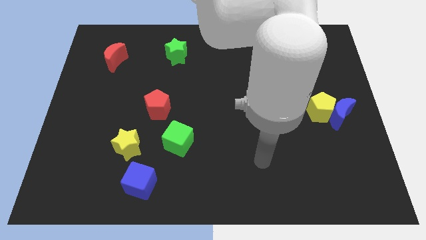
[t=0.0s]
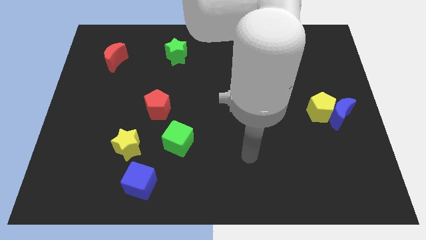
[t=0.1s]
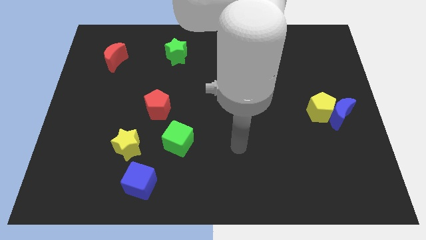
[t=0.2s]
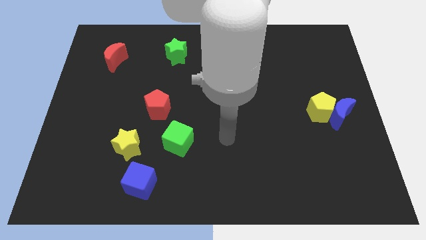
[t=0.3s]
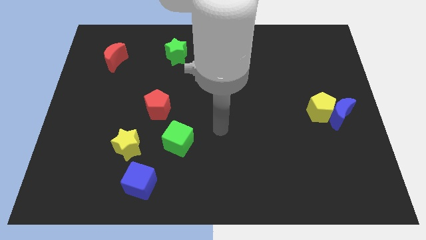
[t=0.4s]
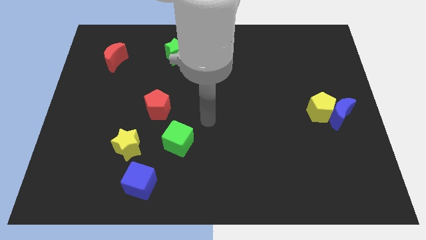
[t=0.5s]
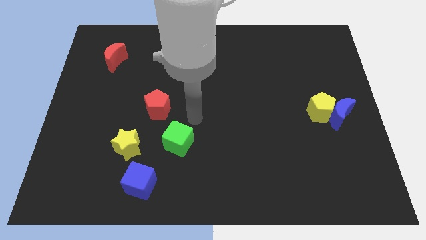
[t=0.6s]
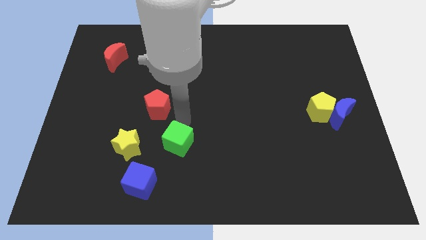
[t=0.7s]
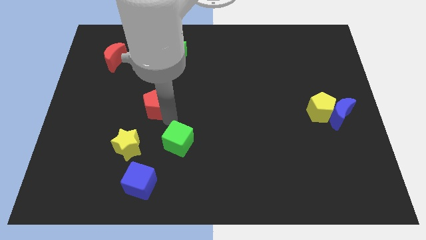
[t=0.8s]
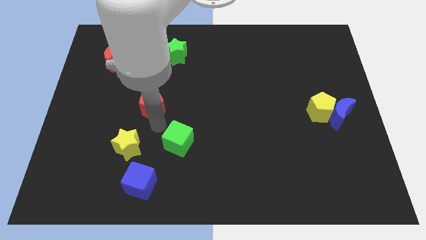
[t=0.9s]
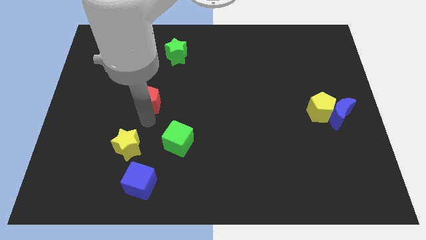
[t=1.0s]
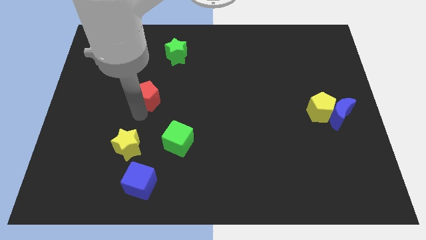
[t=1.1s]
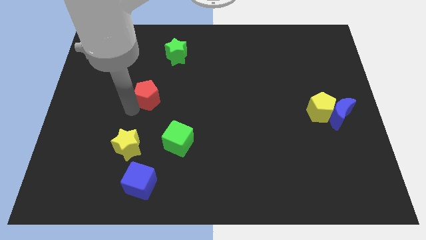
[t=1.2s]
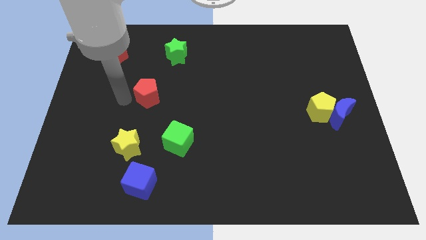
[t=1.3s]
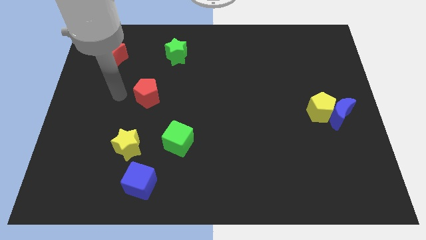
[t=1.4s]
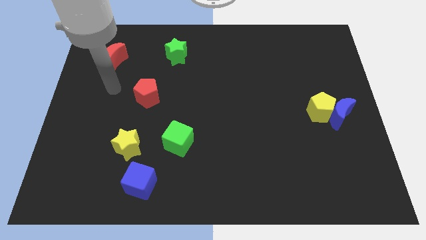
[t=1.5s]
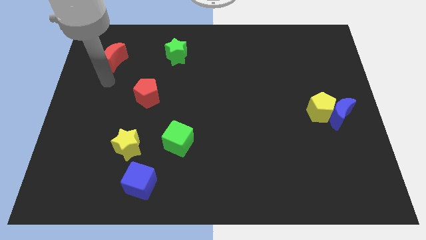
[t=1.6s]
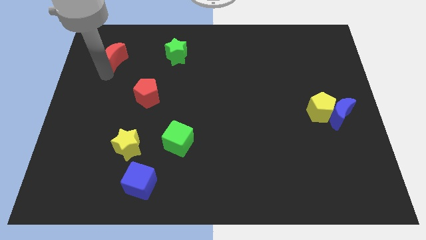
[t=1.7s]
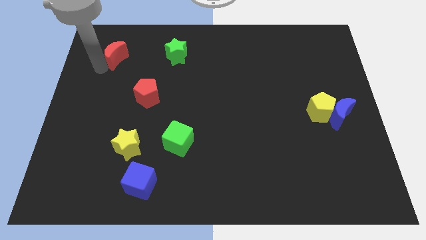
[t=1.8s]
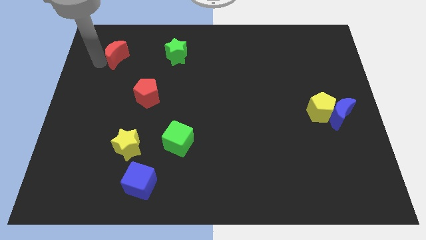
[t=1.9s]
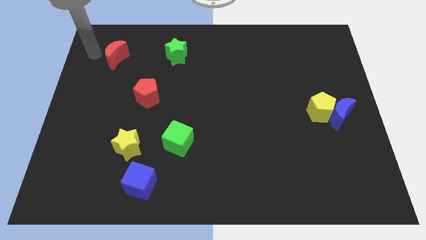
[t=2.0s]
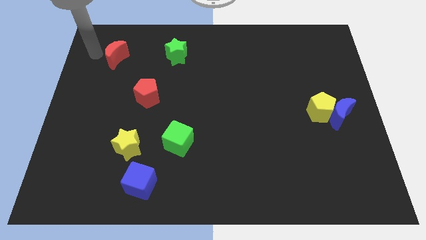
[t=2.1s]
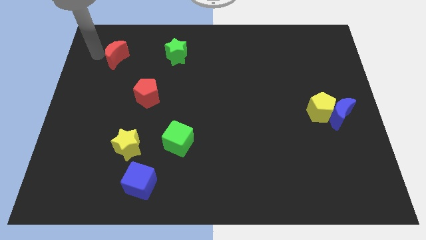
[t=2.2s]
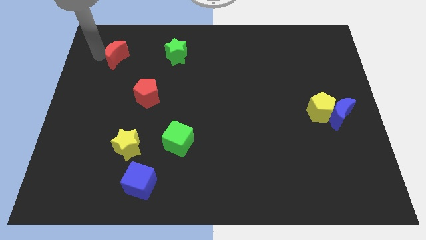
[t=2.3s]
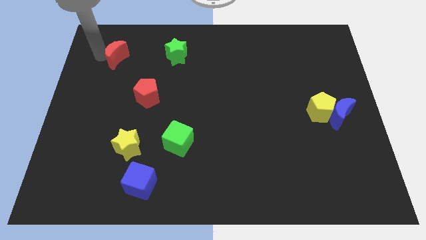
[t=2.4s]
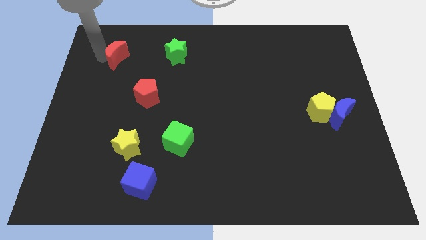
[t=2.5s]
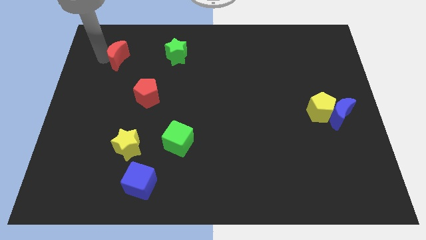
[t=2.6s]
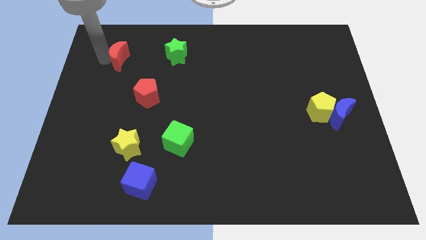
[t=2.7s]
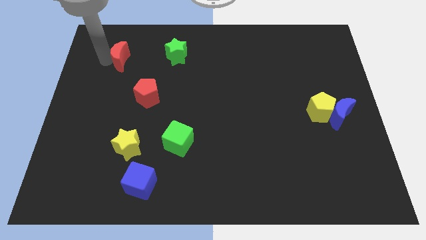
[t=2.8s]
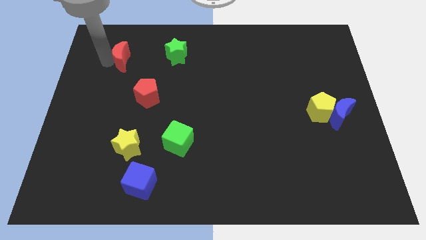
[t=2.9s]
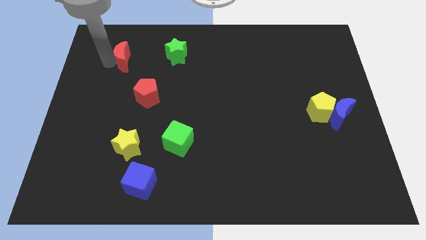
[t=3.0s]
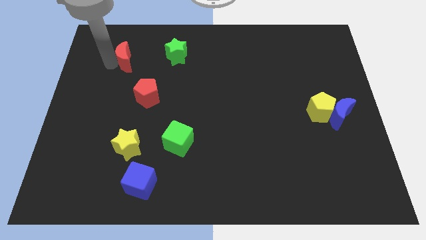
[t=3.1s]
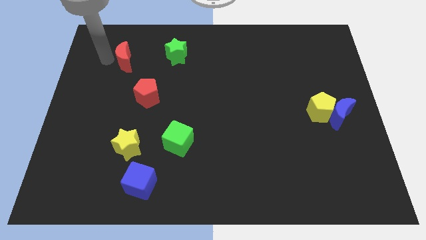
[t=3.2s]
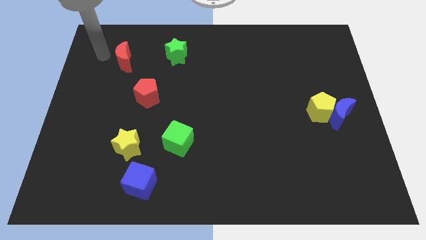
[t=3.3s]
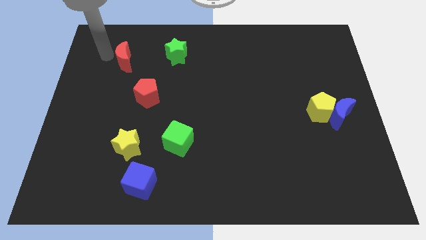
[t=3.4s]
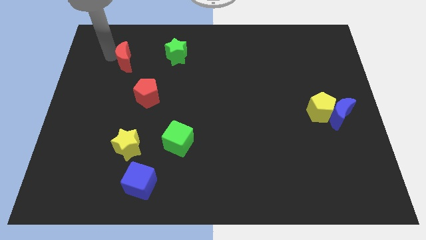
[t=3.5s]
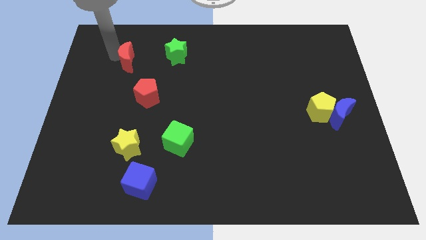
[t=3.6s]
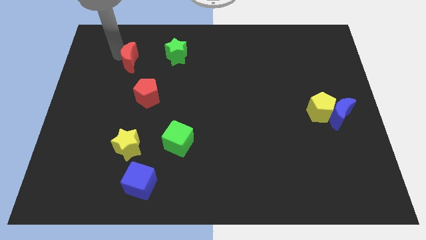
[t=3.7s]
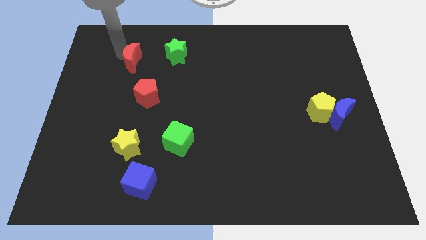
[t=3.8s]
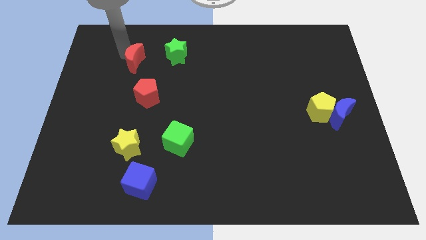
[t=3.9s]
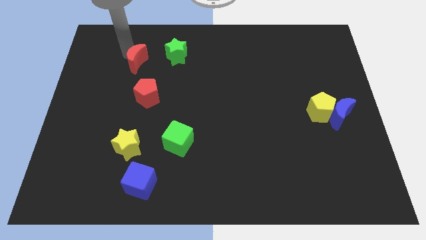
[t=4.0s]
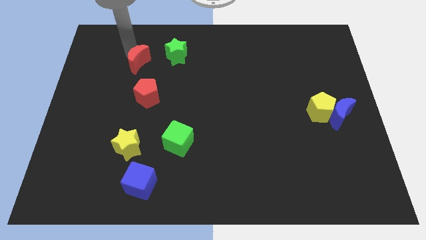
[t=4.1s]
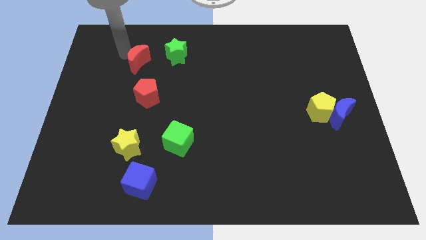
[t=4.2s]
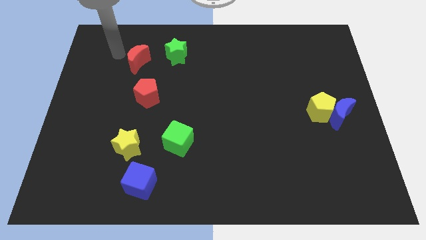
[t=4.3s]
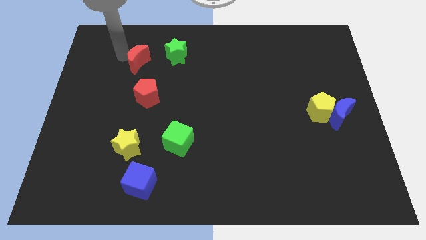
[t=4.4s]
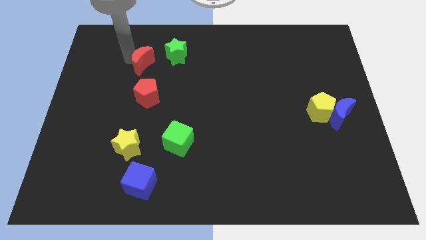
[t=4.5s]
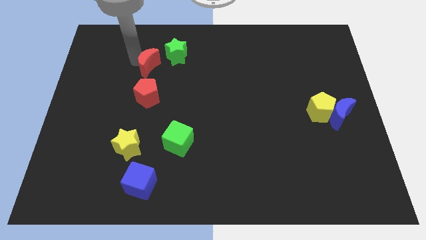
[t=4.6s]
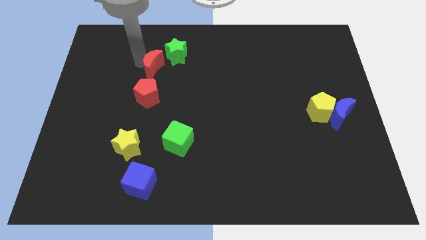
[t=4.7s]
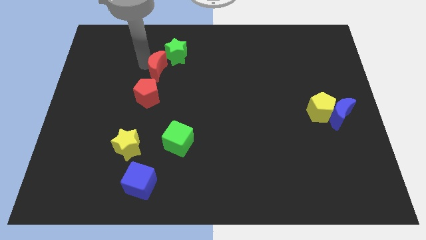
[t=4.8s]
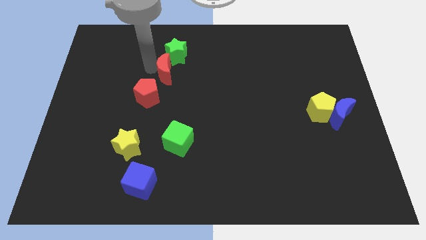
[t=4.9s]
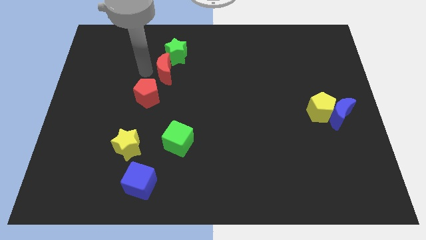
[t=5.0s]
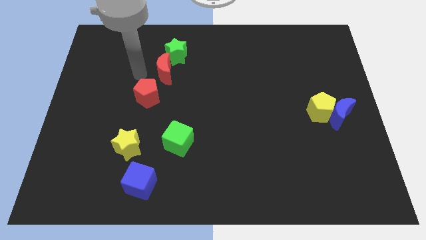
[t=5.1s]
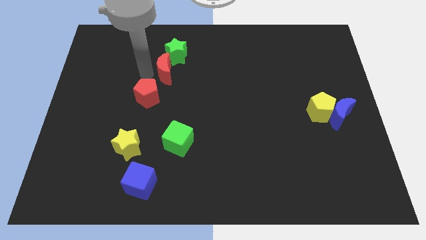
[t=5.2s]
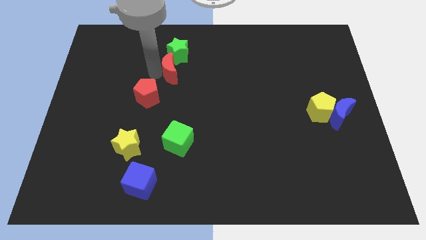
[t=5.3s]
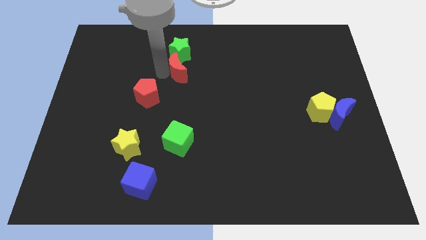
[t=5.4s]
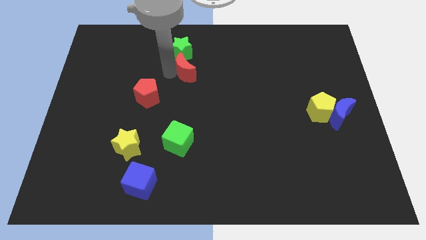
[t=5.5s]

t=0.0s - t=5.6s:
slide the red moon to the bottom right of the green star

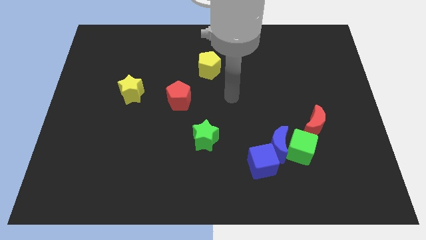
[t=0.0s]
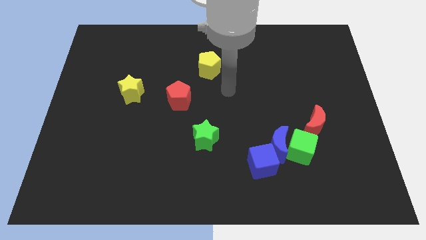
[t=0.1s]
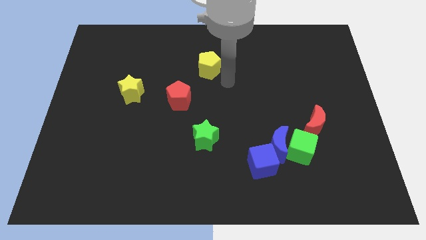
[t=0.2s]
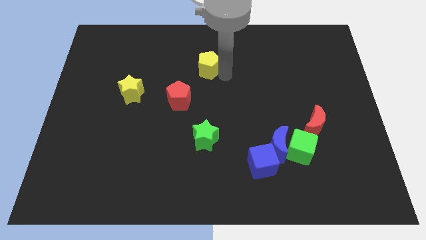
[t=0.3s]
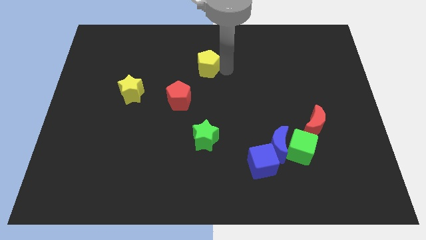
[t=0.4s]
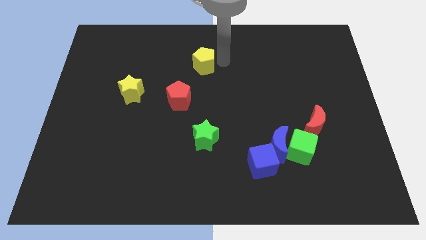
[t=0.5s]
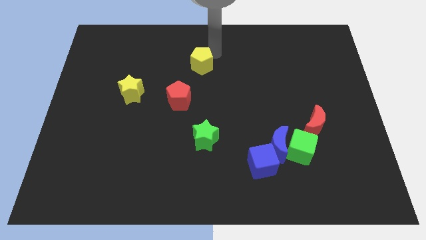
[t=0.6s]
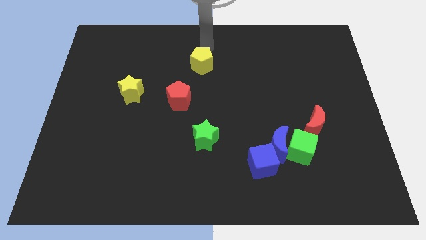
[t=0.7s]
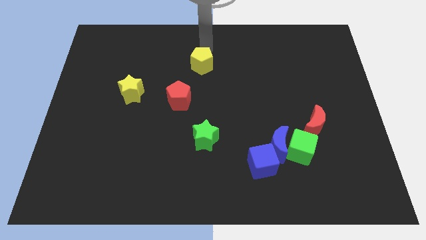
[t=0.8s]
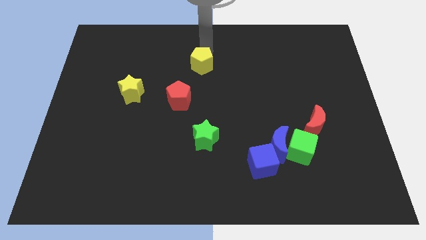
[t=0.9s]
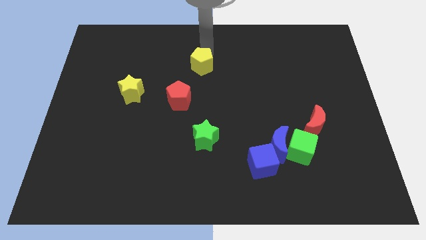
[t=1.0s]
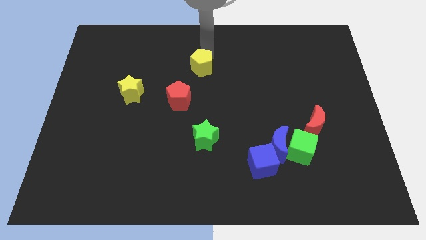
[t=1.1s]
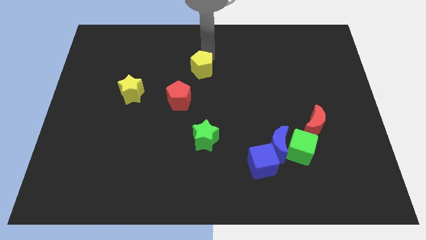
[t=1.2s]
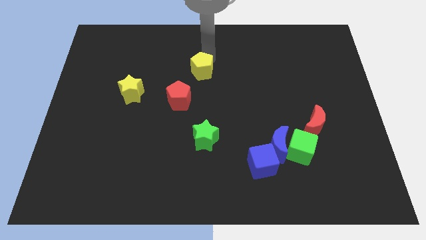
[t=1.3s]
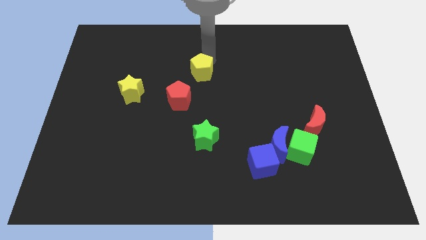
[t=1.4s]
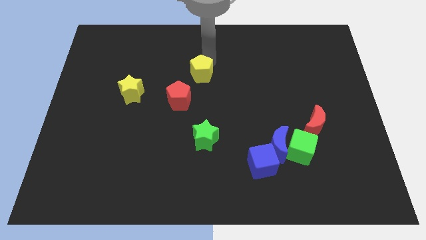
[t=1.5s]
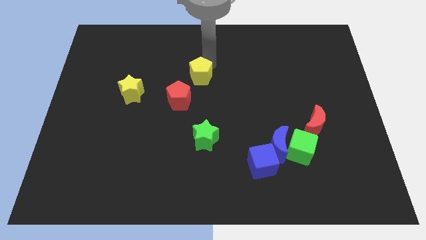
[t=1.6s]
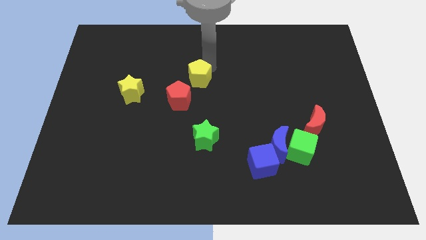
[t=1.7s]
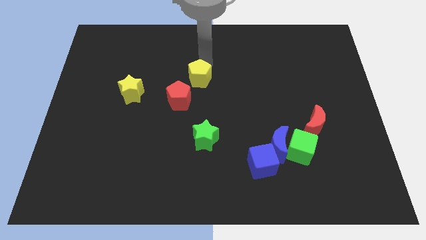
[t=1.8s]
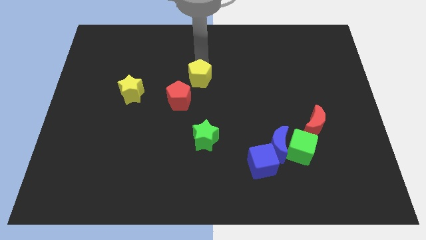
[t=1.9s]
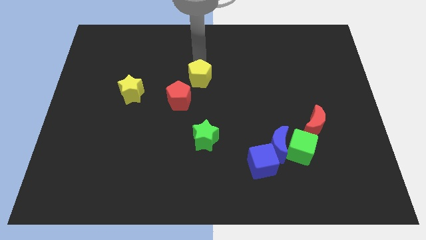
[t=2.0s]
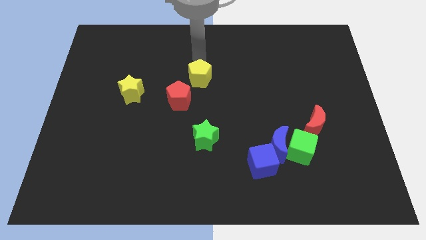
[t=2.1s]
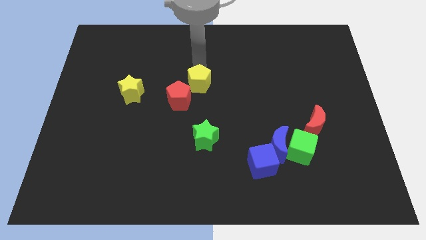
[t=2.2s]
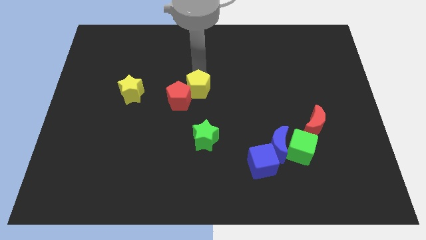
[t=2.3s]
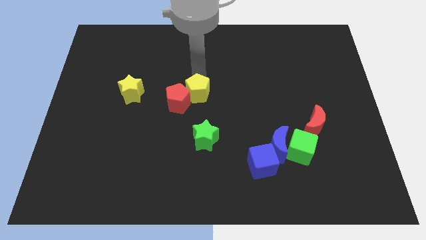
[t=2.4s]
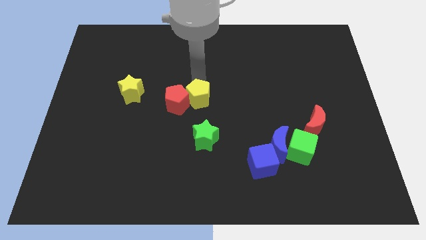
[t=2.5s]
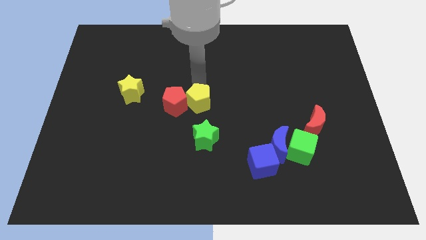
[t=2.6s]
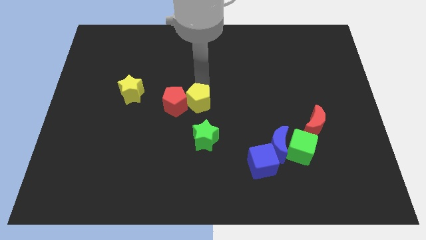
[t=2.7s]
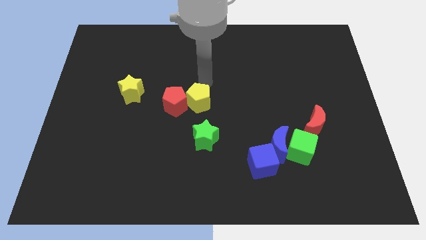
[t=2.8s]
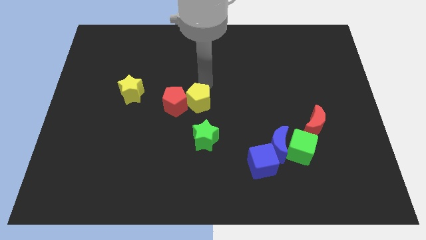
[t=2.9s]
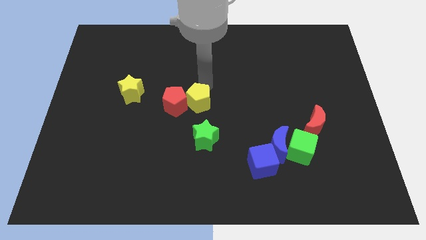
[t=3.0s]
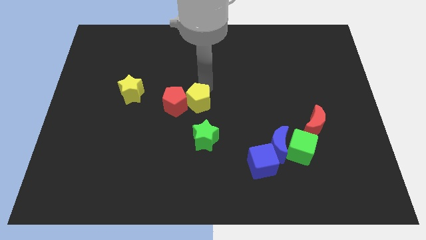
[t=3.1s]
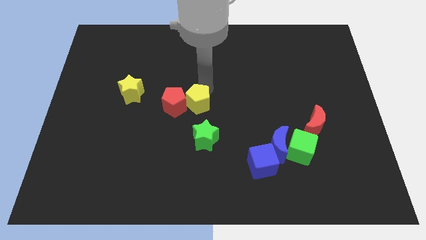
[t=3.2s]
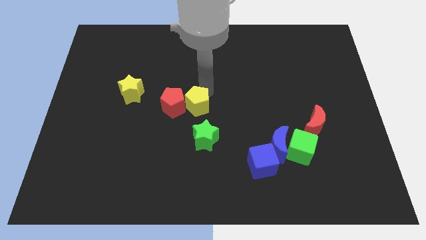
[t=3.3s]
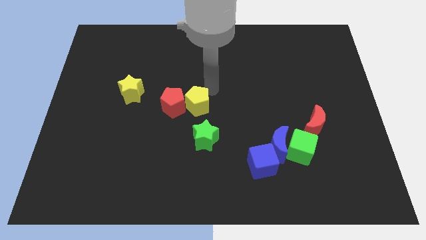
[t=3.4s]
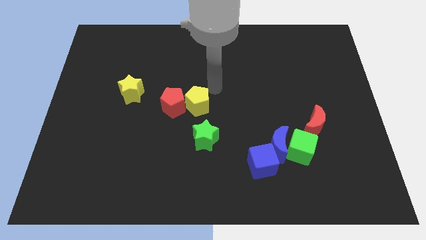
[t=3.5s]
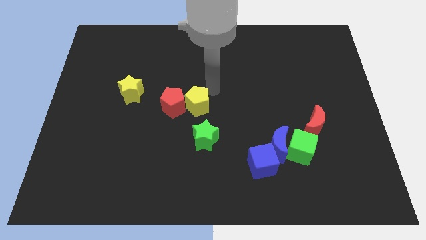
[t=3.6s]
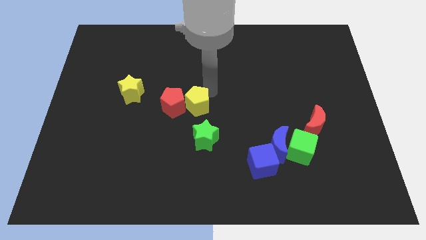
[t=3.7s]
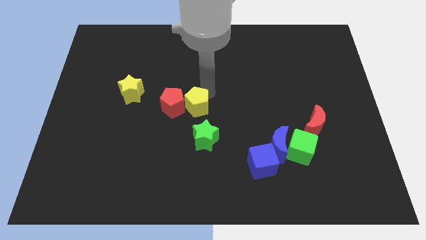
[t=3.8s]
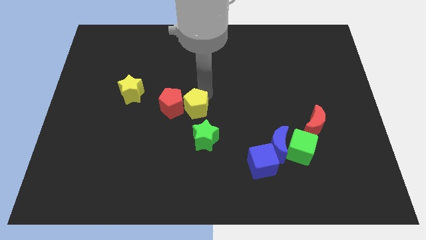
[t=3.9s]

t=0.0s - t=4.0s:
move the yellow pentagon to the top left side of the green star
